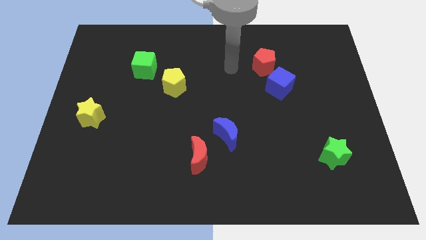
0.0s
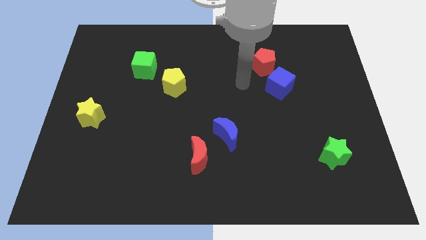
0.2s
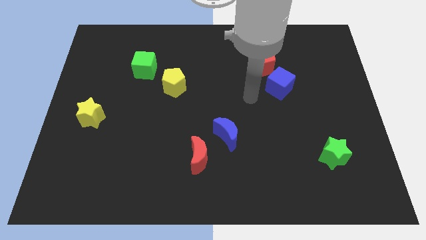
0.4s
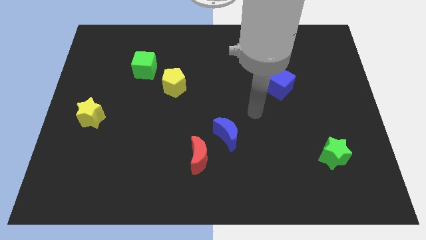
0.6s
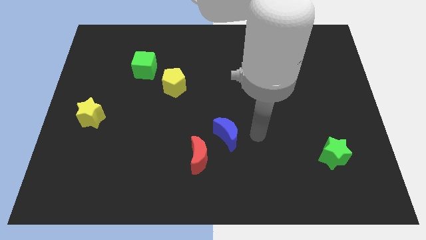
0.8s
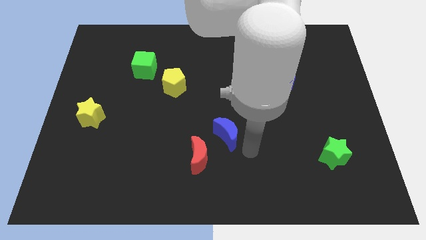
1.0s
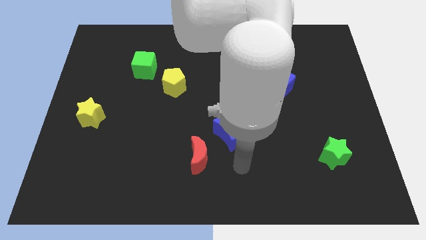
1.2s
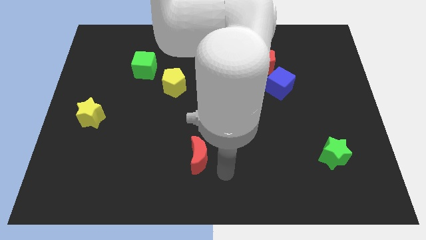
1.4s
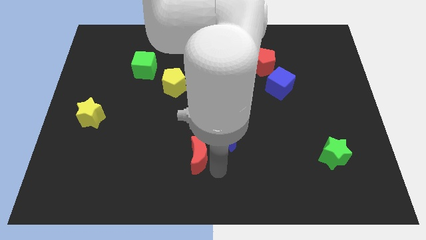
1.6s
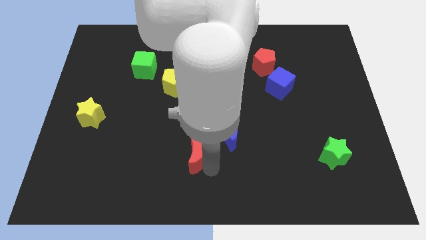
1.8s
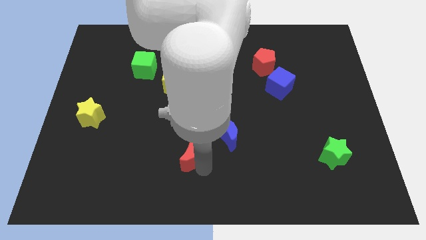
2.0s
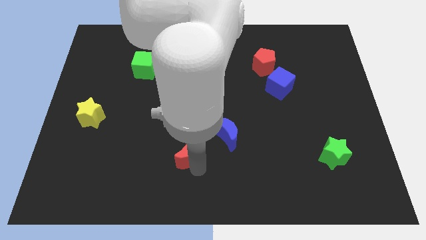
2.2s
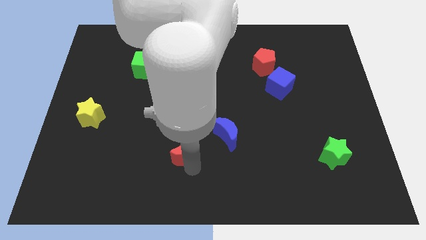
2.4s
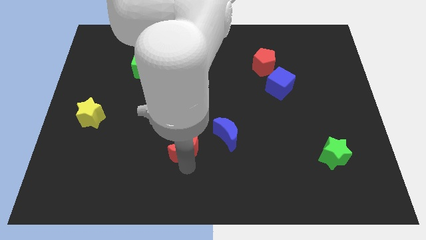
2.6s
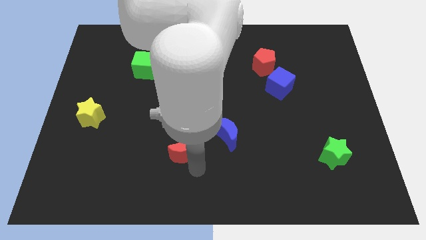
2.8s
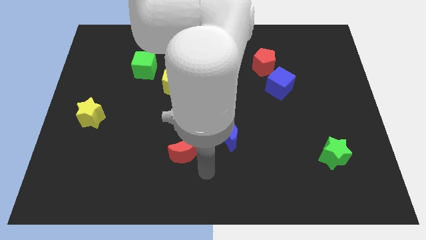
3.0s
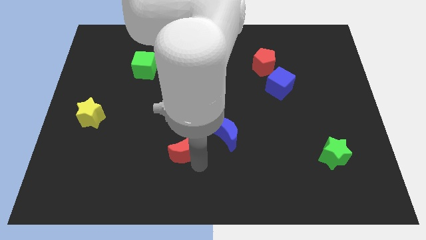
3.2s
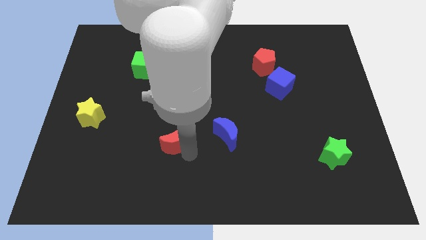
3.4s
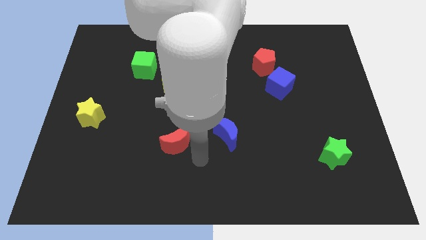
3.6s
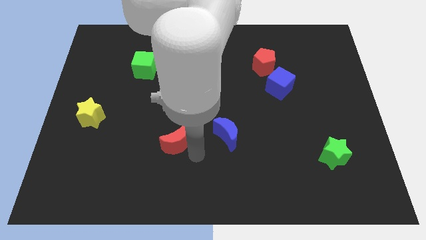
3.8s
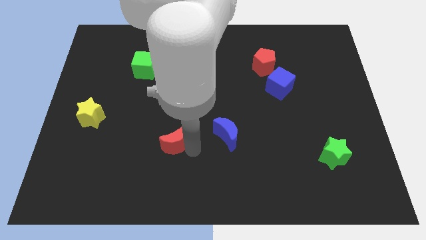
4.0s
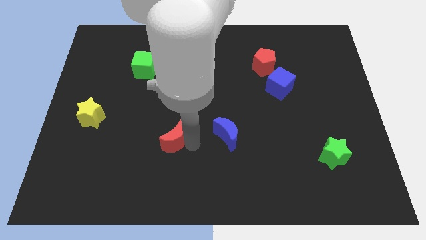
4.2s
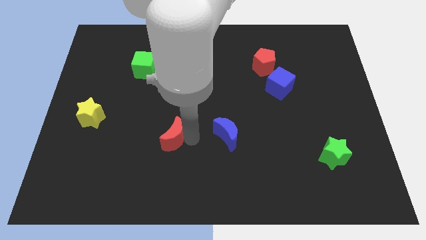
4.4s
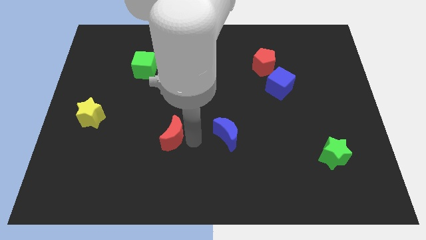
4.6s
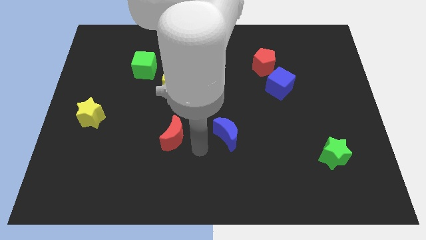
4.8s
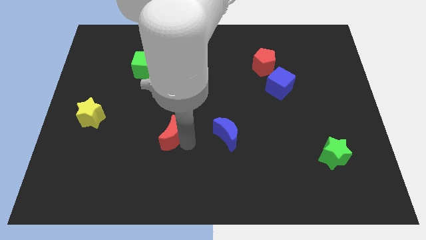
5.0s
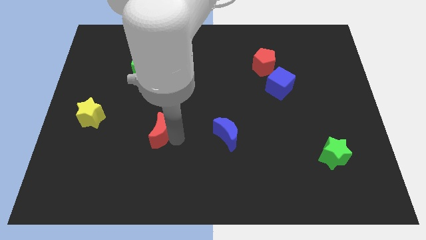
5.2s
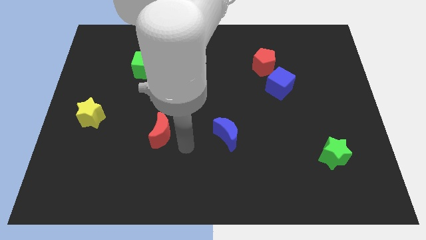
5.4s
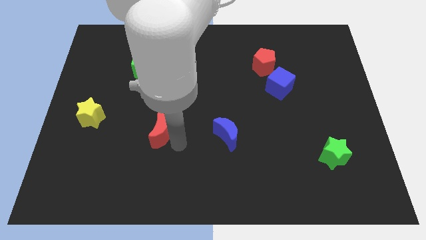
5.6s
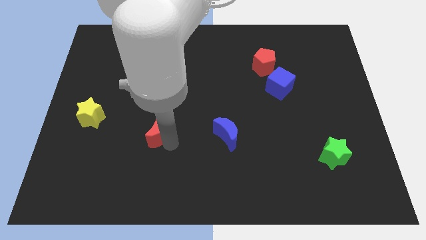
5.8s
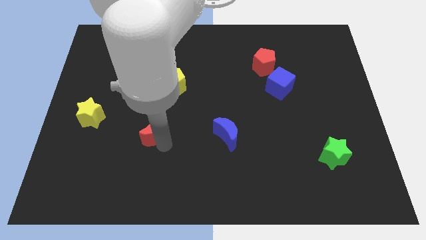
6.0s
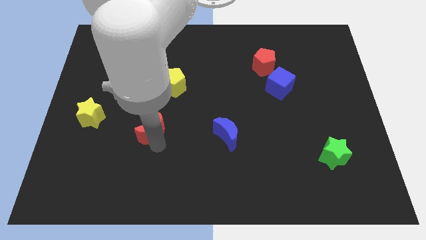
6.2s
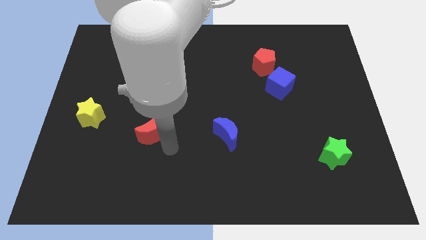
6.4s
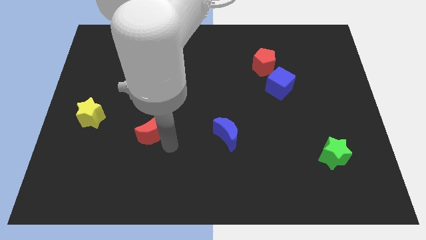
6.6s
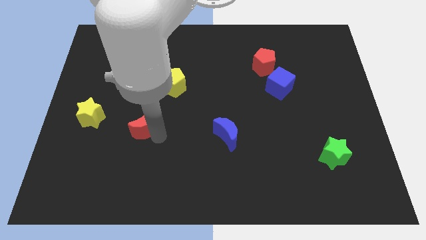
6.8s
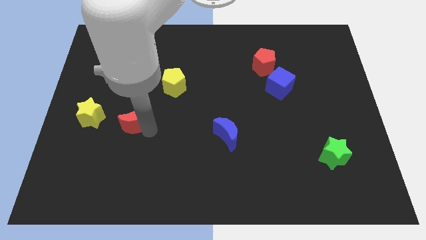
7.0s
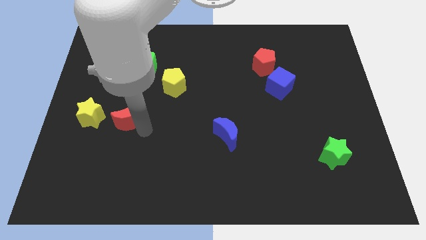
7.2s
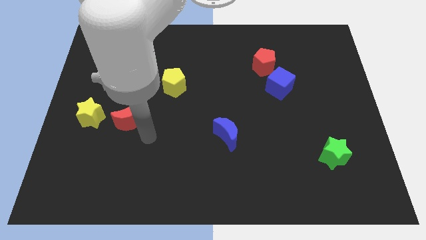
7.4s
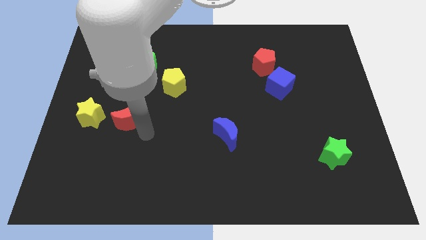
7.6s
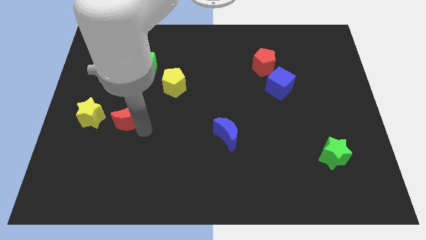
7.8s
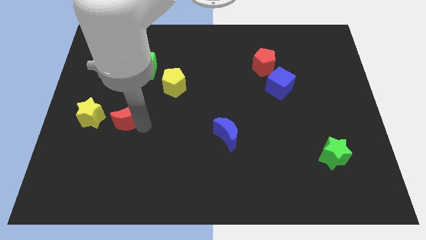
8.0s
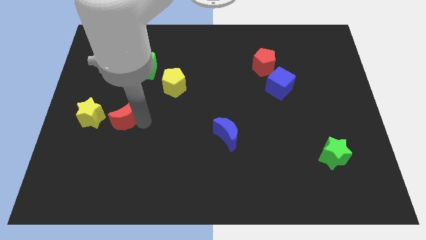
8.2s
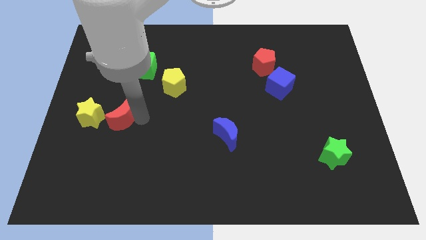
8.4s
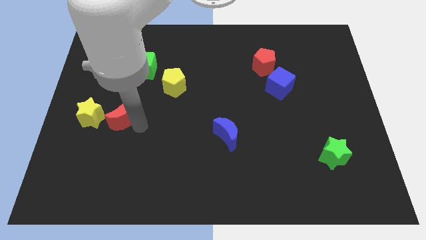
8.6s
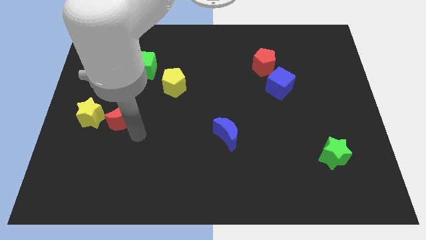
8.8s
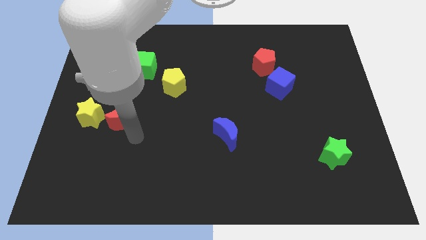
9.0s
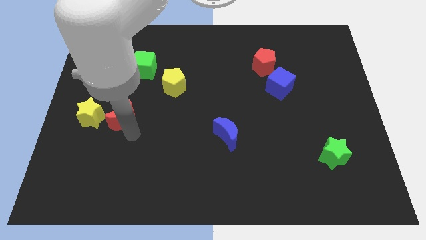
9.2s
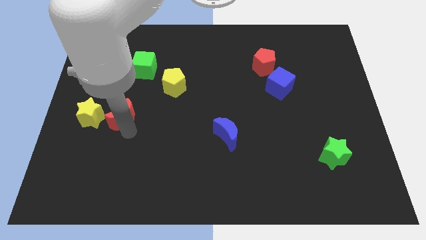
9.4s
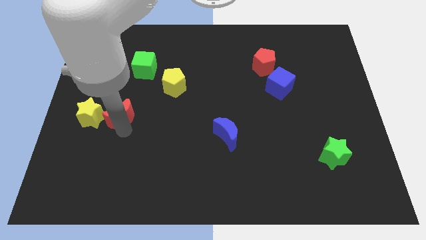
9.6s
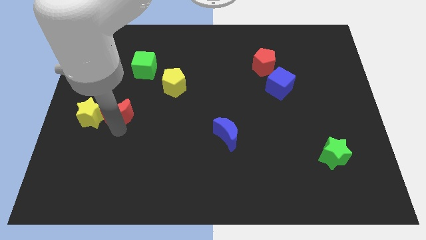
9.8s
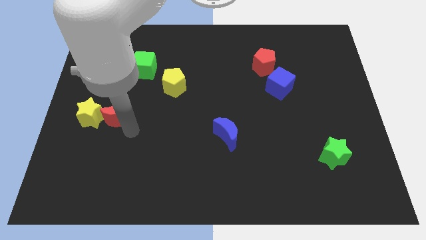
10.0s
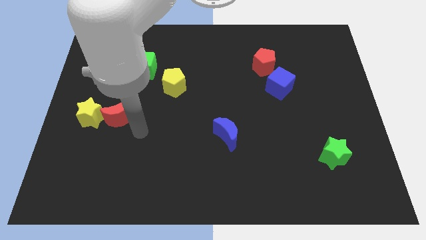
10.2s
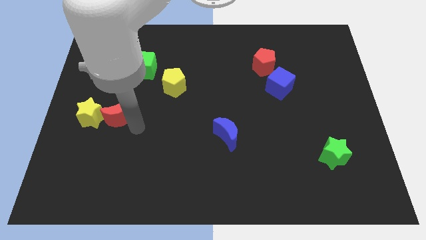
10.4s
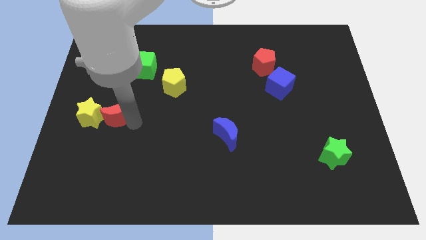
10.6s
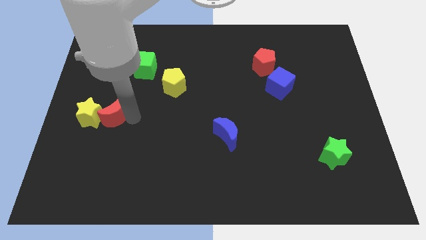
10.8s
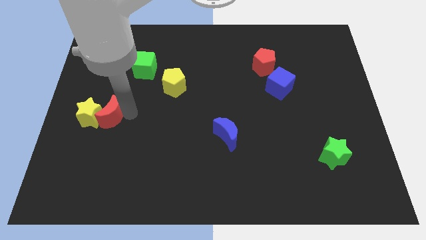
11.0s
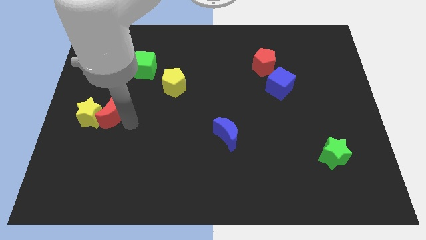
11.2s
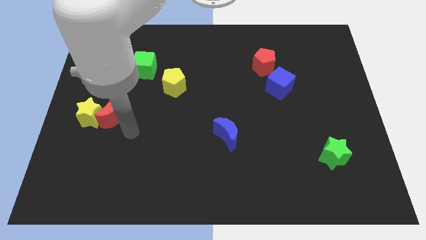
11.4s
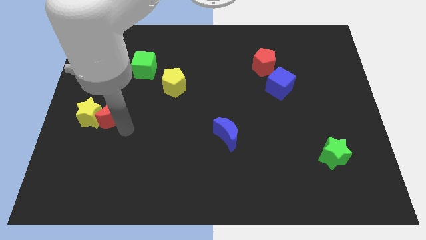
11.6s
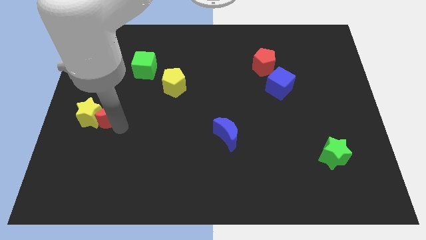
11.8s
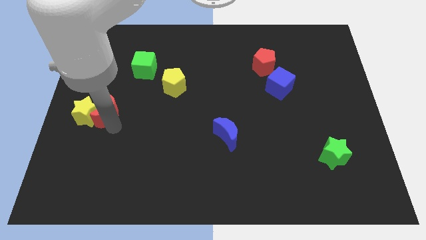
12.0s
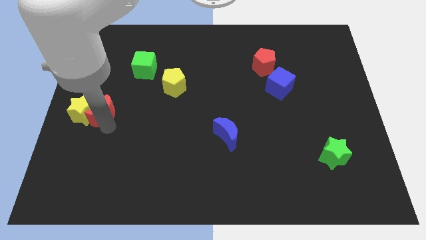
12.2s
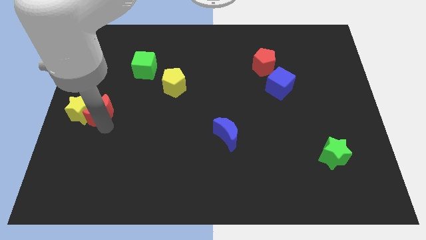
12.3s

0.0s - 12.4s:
slide the red moon to the left side
